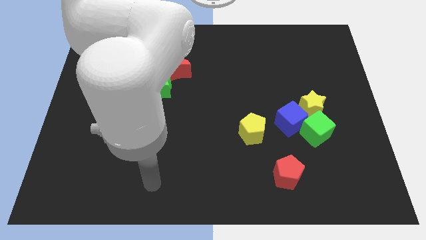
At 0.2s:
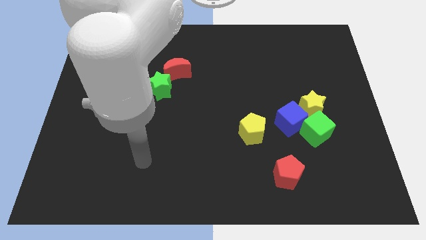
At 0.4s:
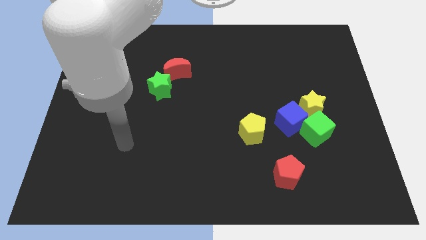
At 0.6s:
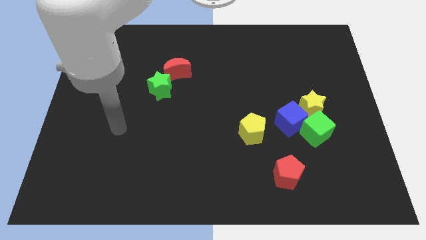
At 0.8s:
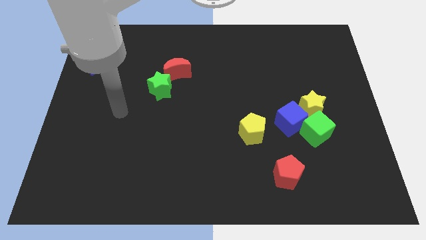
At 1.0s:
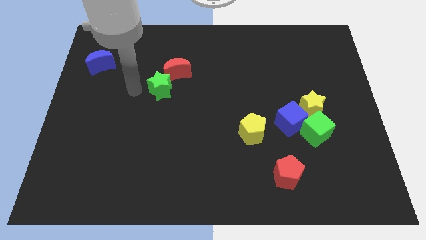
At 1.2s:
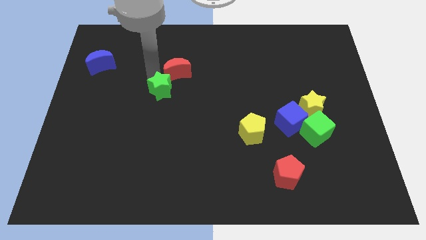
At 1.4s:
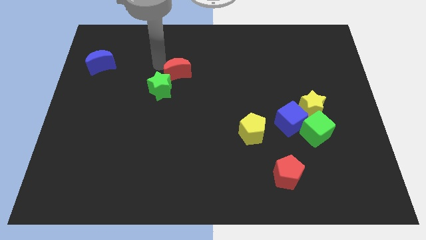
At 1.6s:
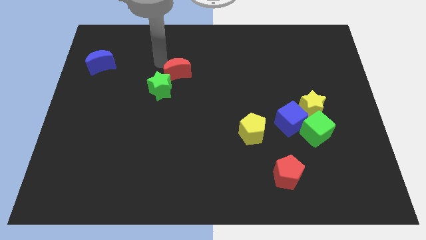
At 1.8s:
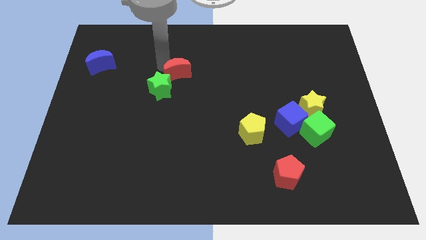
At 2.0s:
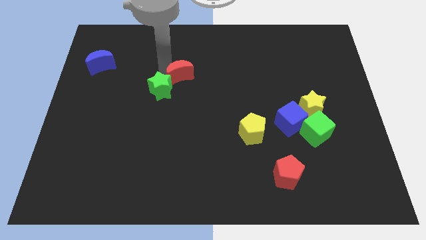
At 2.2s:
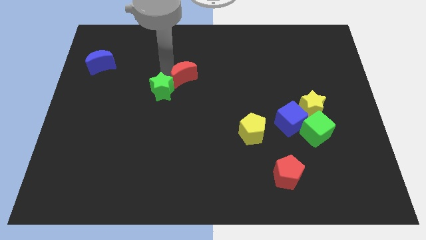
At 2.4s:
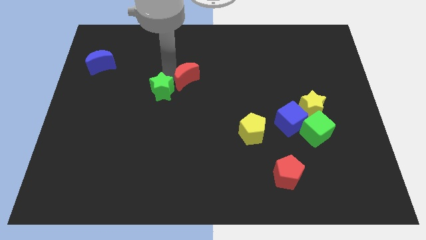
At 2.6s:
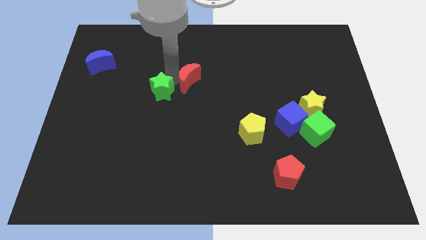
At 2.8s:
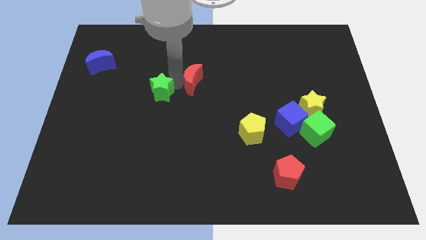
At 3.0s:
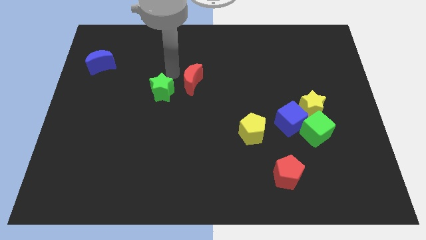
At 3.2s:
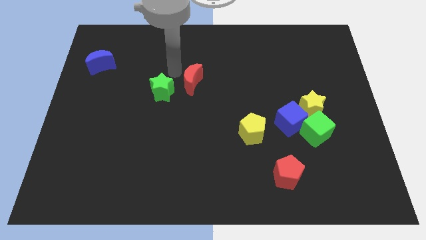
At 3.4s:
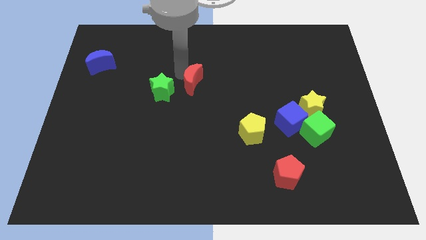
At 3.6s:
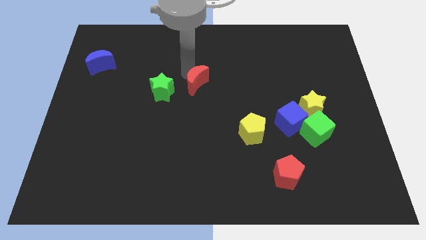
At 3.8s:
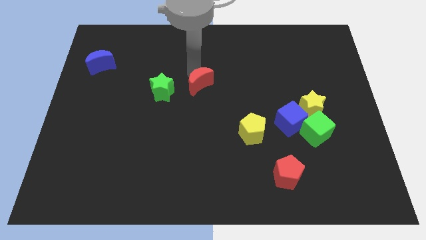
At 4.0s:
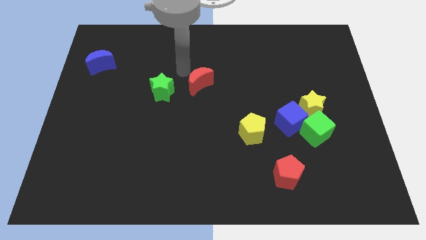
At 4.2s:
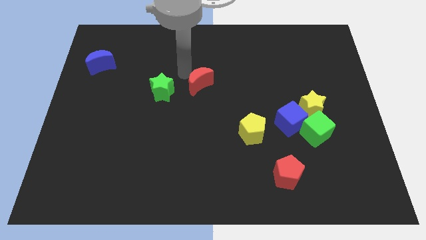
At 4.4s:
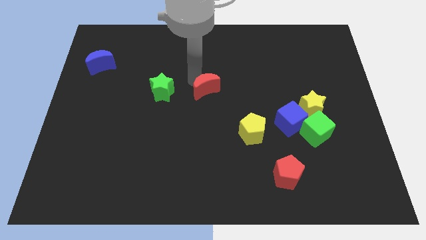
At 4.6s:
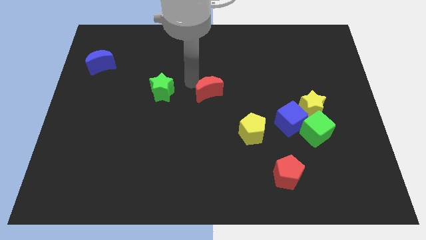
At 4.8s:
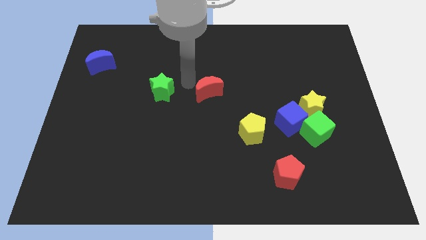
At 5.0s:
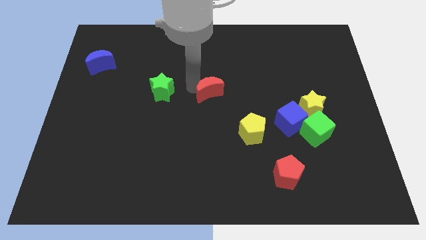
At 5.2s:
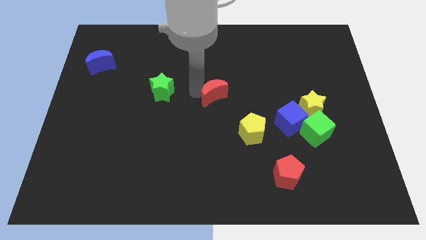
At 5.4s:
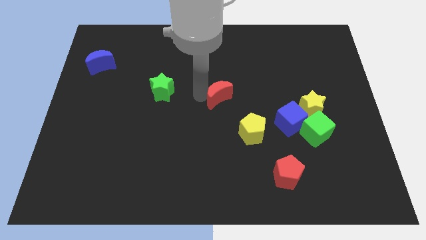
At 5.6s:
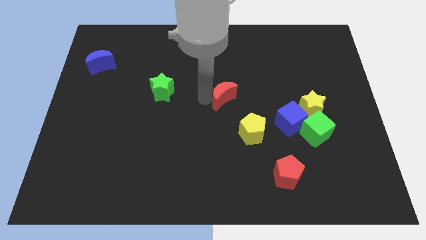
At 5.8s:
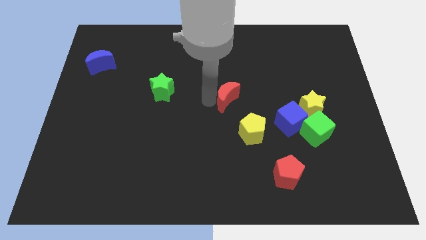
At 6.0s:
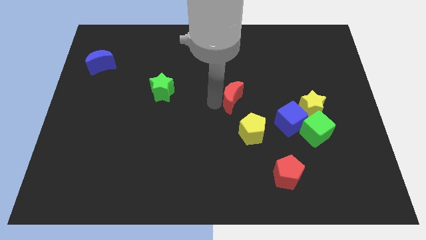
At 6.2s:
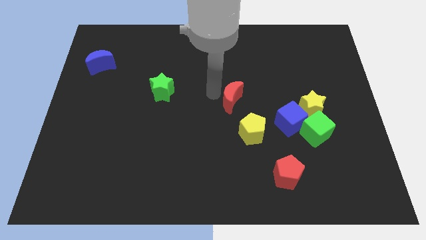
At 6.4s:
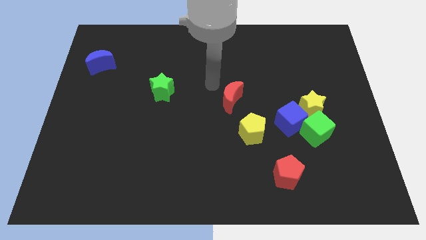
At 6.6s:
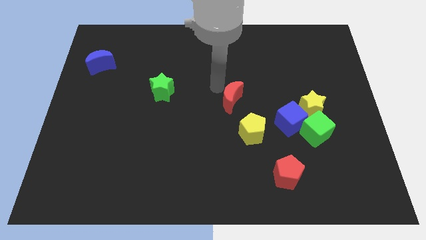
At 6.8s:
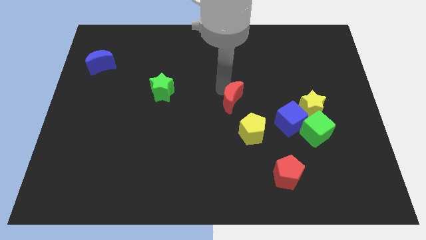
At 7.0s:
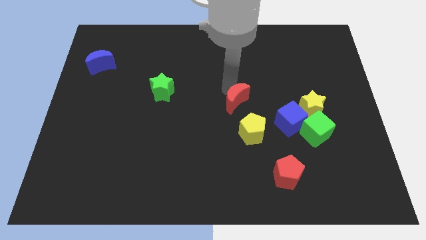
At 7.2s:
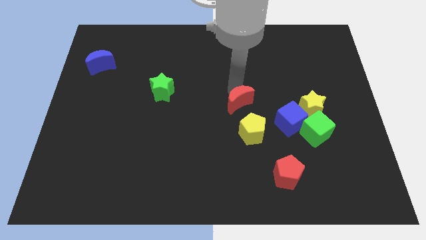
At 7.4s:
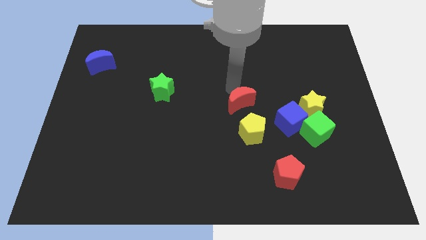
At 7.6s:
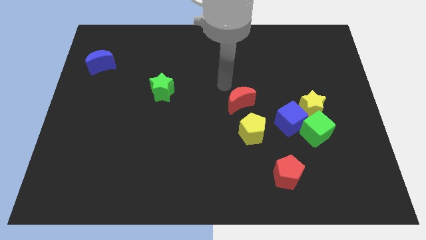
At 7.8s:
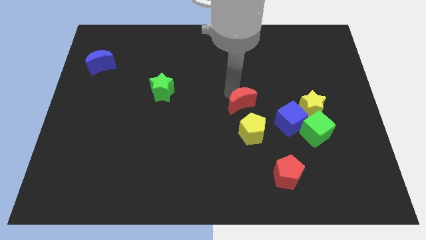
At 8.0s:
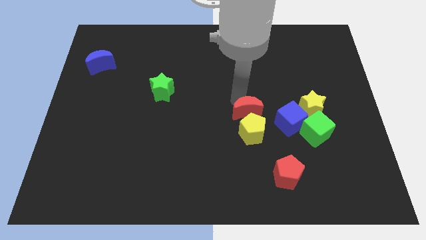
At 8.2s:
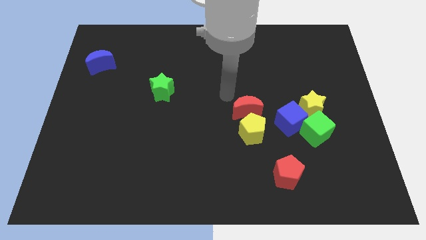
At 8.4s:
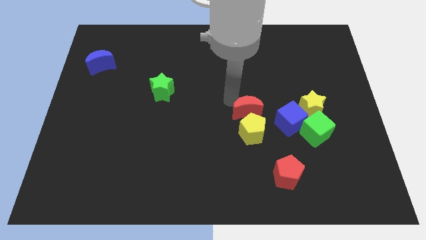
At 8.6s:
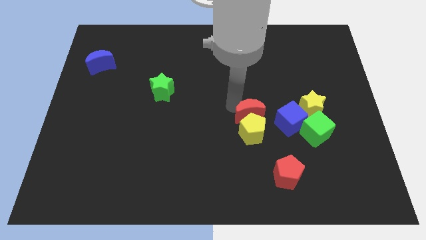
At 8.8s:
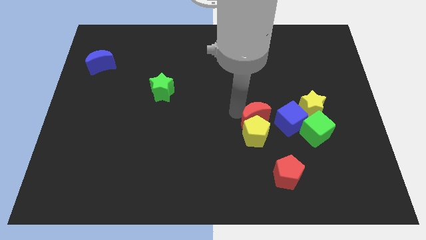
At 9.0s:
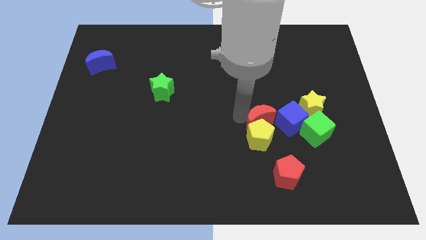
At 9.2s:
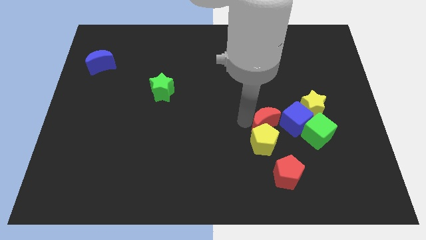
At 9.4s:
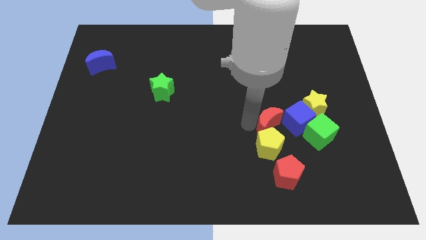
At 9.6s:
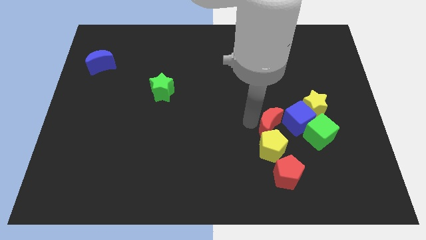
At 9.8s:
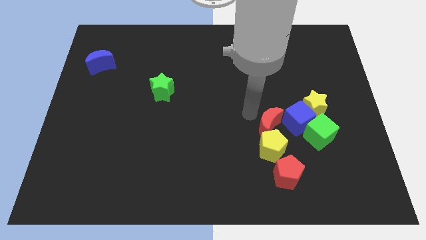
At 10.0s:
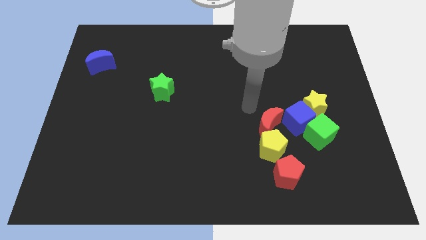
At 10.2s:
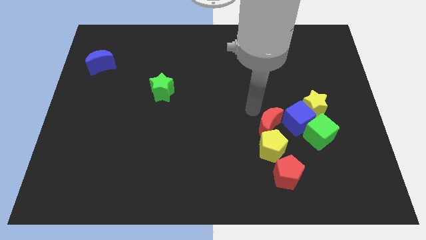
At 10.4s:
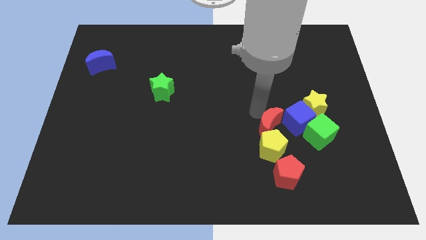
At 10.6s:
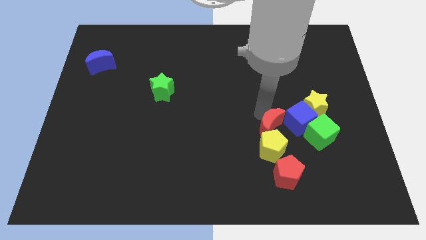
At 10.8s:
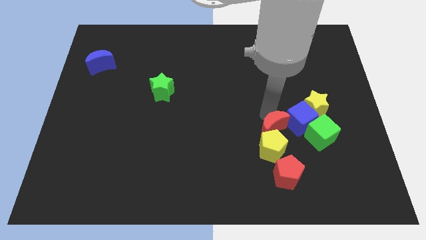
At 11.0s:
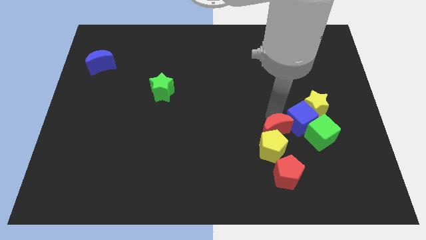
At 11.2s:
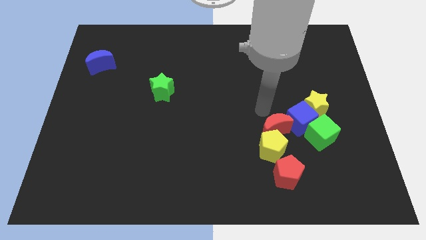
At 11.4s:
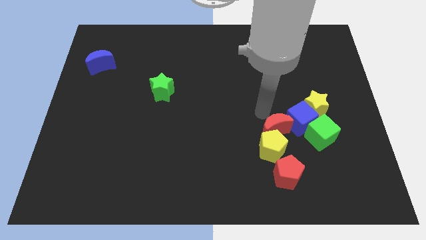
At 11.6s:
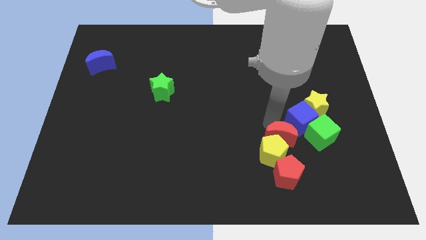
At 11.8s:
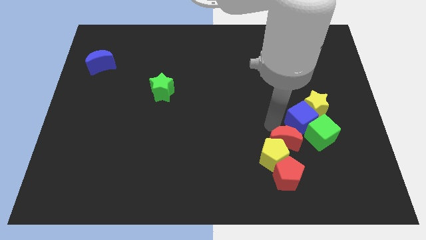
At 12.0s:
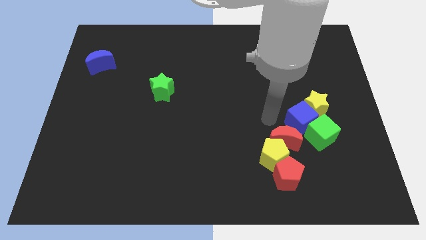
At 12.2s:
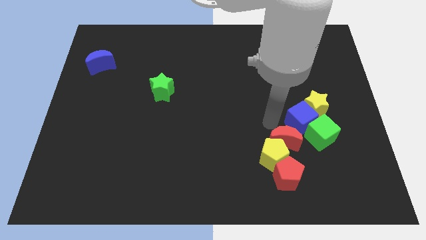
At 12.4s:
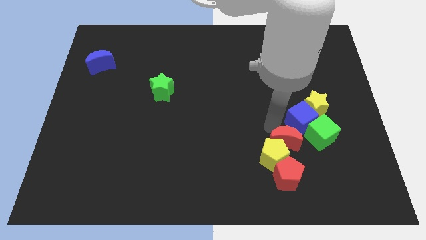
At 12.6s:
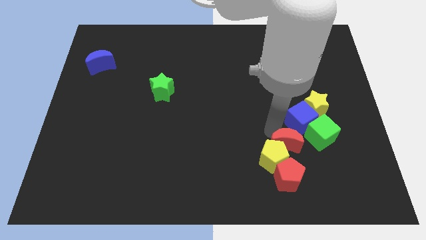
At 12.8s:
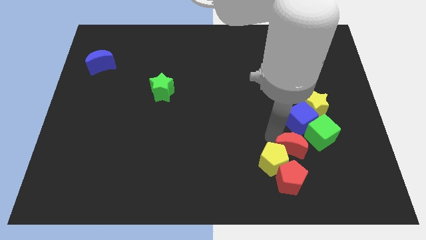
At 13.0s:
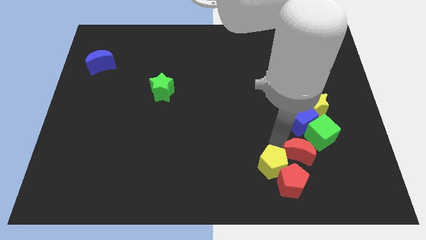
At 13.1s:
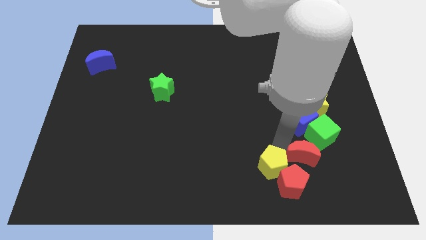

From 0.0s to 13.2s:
move the red moon to the bottom side of the green cube

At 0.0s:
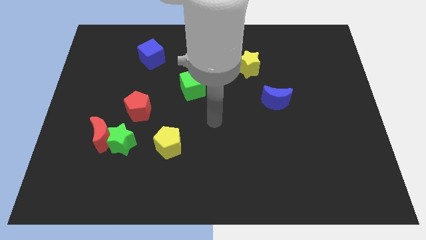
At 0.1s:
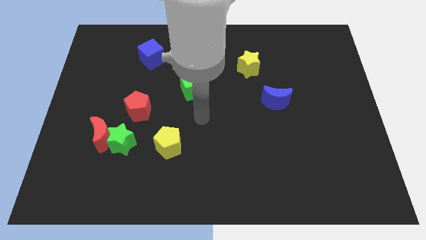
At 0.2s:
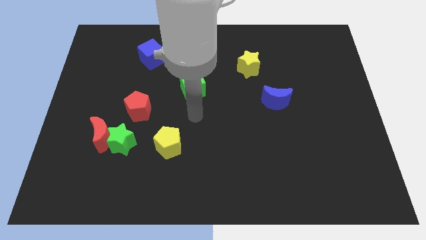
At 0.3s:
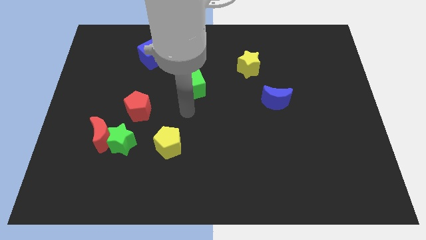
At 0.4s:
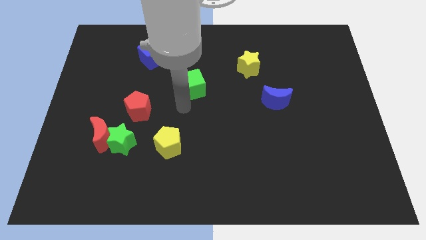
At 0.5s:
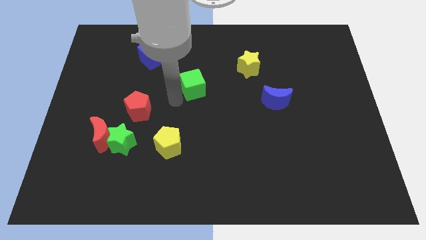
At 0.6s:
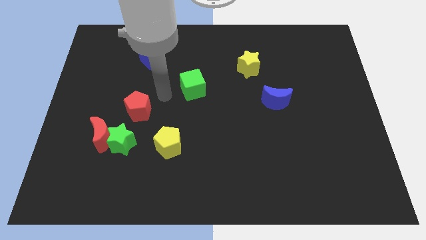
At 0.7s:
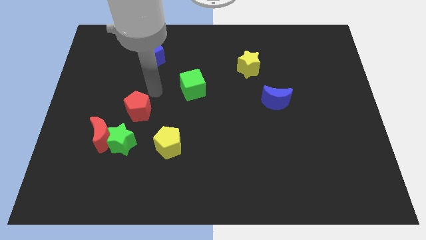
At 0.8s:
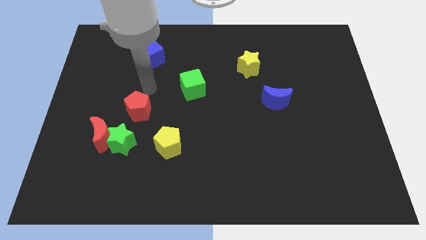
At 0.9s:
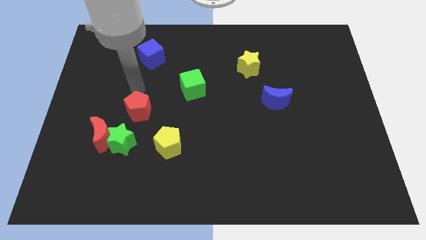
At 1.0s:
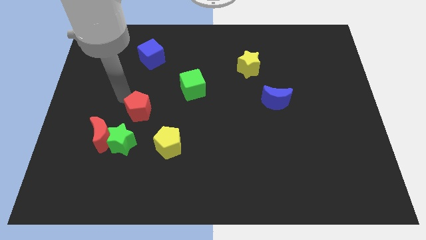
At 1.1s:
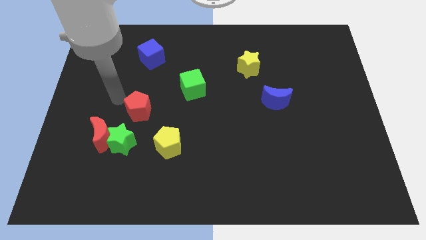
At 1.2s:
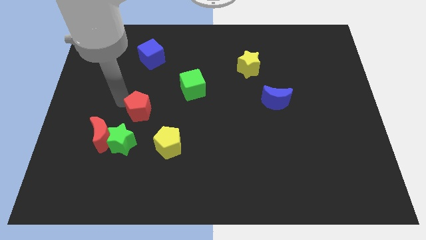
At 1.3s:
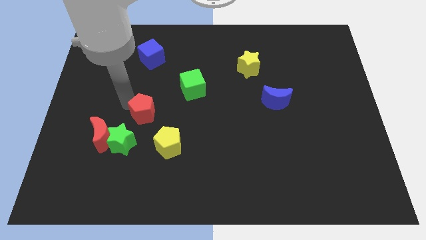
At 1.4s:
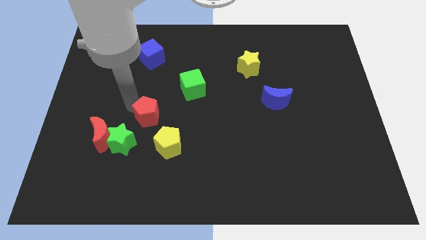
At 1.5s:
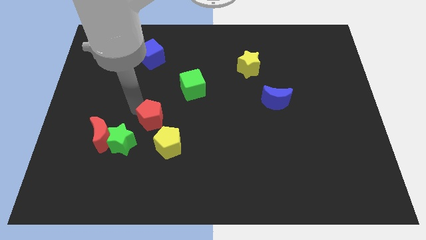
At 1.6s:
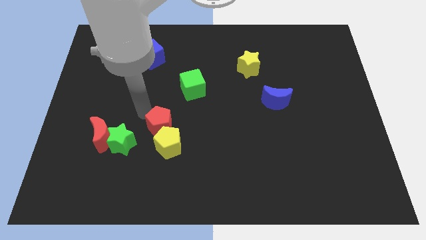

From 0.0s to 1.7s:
put the red pentagon to the right side of the green star

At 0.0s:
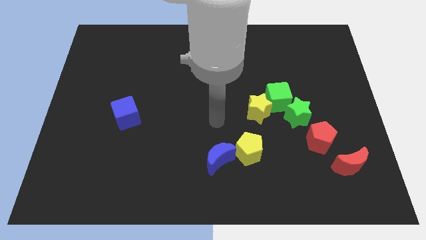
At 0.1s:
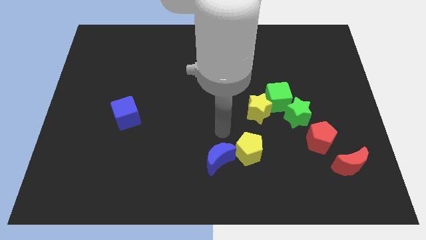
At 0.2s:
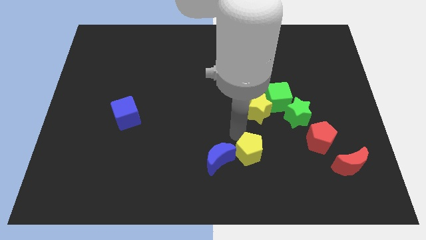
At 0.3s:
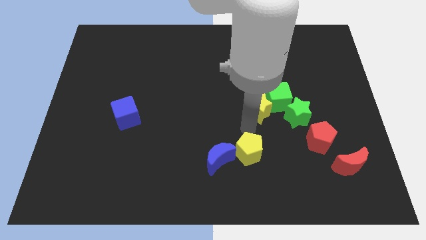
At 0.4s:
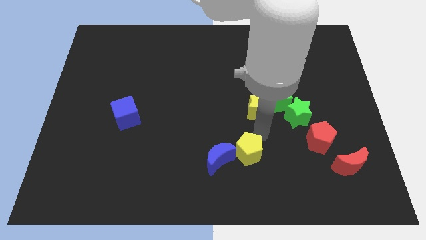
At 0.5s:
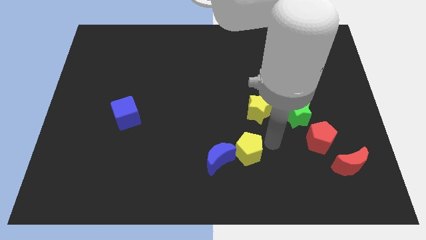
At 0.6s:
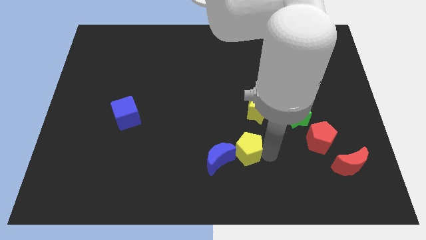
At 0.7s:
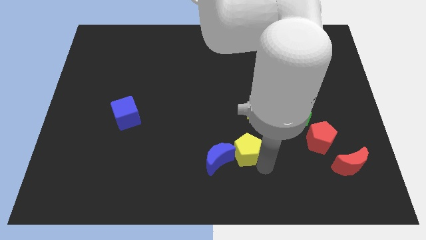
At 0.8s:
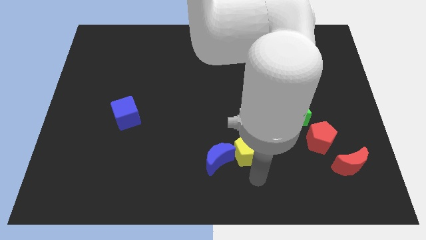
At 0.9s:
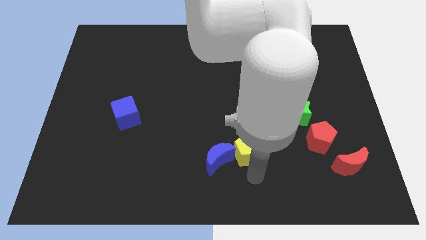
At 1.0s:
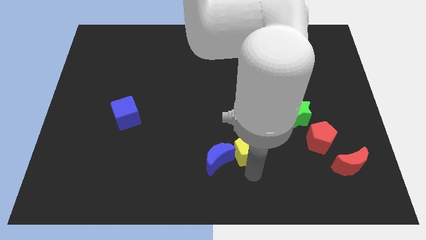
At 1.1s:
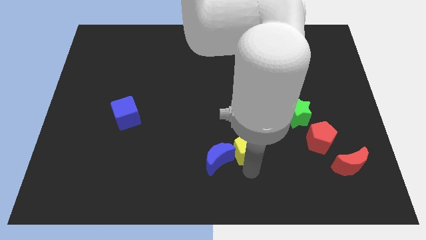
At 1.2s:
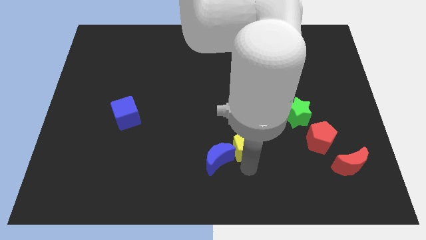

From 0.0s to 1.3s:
push the yellow pentagon diagonally down and to the left of the yellow star
